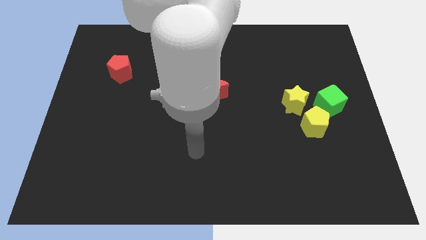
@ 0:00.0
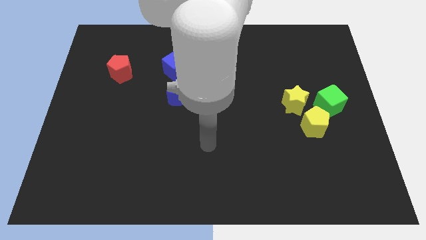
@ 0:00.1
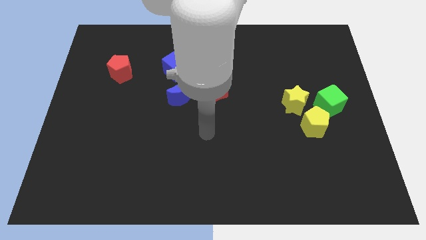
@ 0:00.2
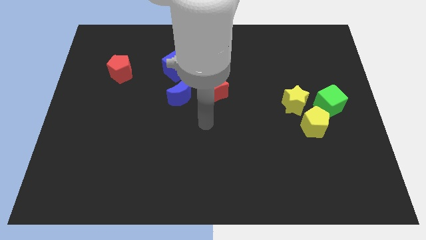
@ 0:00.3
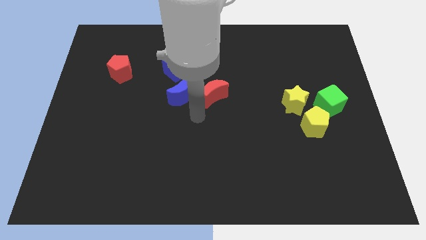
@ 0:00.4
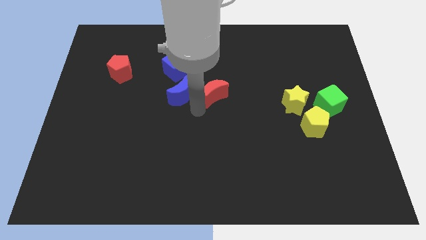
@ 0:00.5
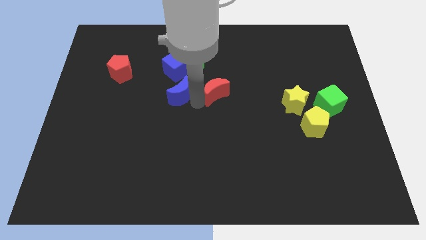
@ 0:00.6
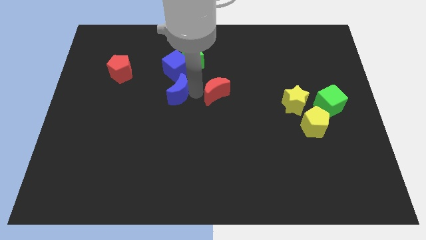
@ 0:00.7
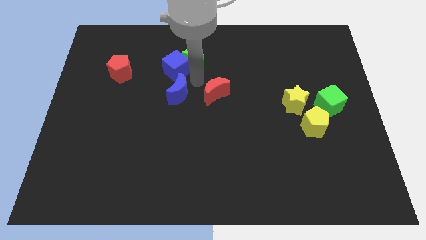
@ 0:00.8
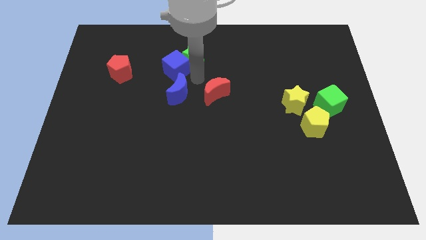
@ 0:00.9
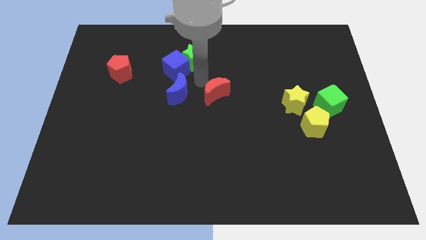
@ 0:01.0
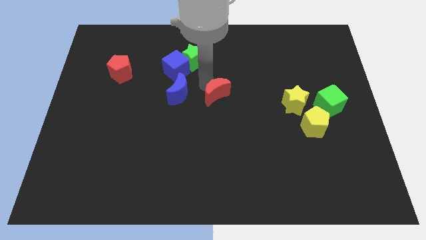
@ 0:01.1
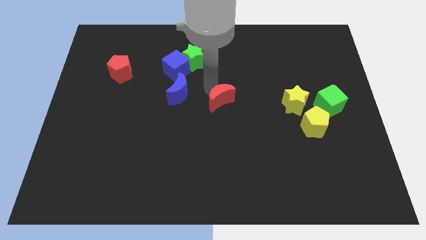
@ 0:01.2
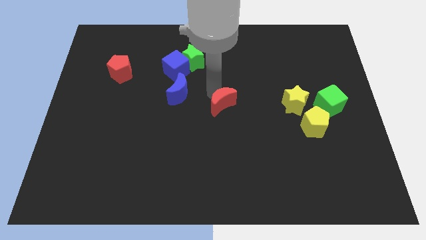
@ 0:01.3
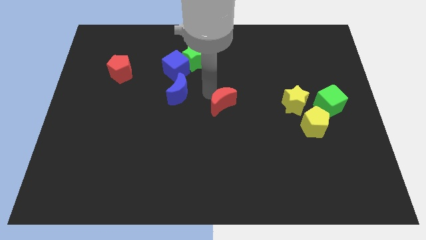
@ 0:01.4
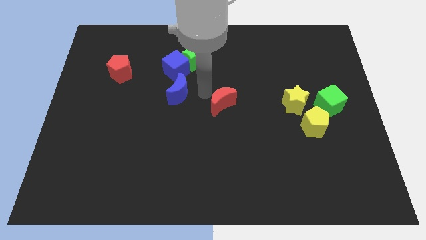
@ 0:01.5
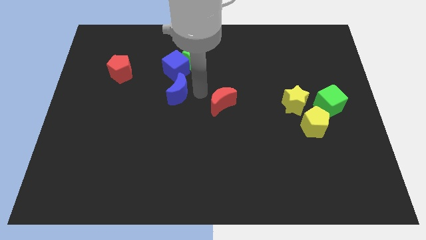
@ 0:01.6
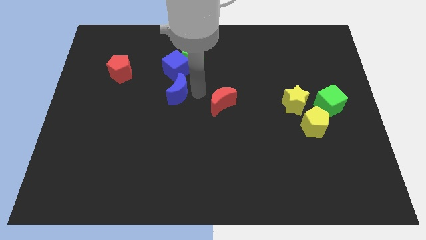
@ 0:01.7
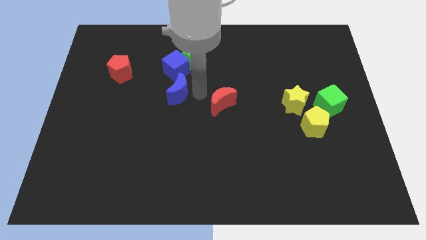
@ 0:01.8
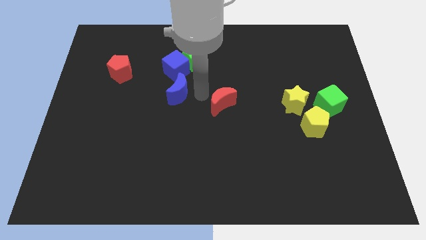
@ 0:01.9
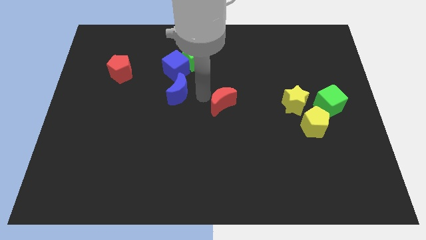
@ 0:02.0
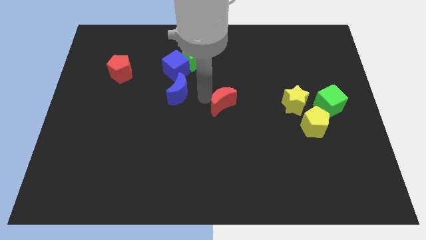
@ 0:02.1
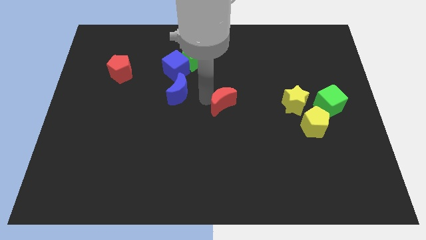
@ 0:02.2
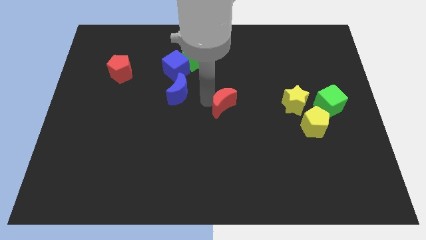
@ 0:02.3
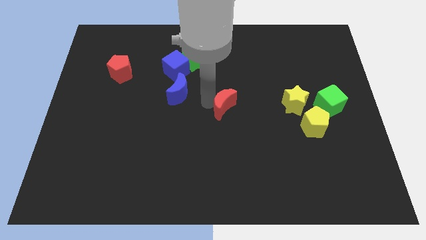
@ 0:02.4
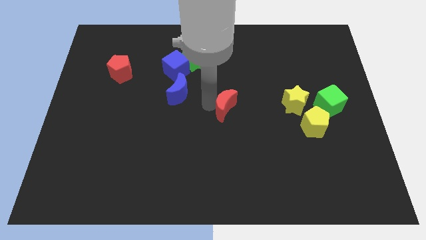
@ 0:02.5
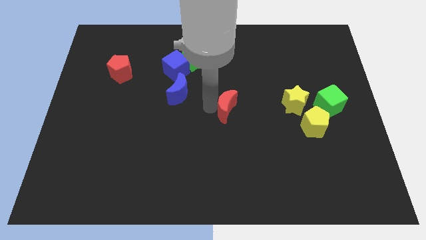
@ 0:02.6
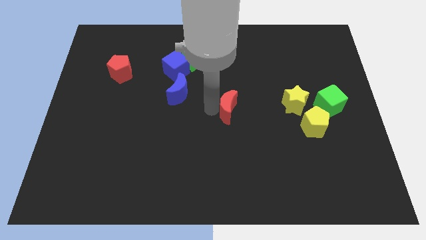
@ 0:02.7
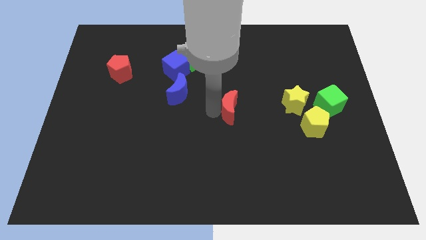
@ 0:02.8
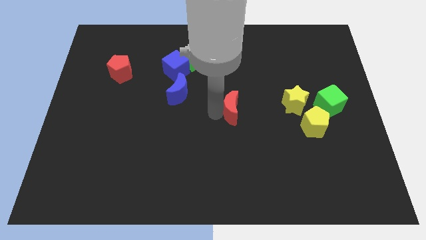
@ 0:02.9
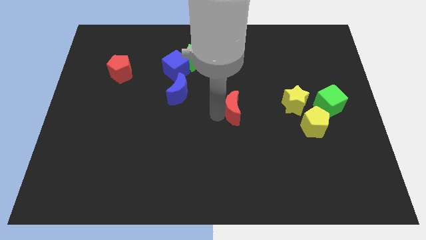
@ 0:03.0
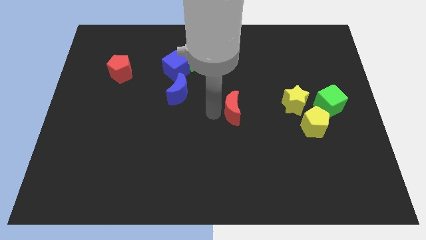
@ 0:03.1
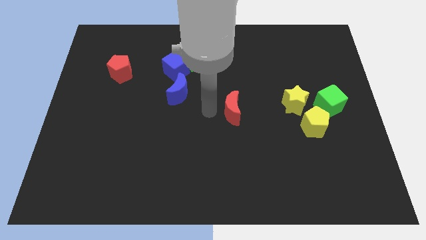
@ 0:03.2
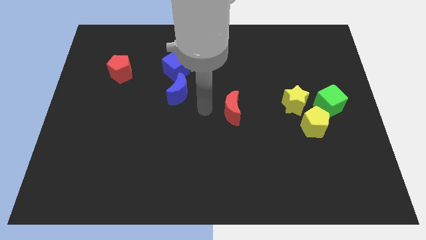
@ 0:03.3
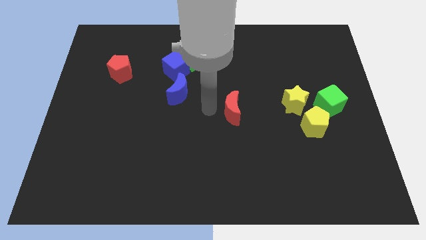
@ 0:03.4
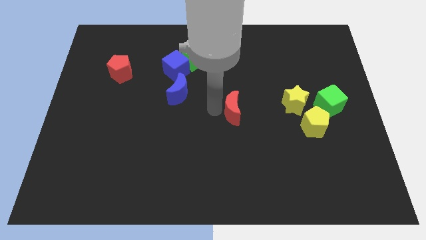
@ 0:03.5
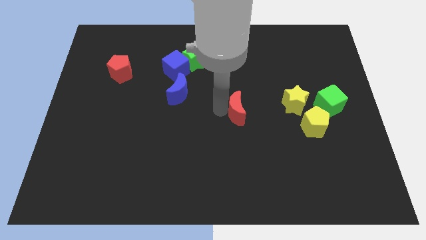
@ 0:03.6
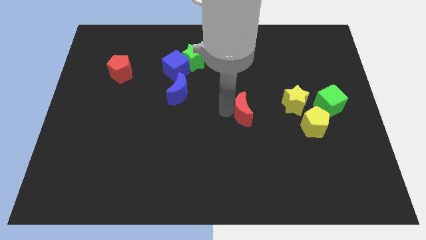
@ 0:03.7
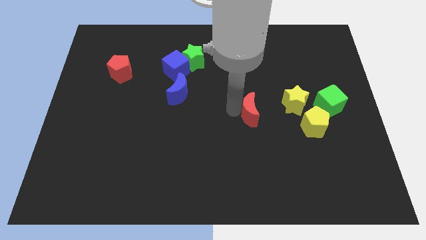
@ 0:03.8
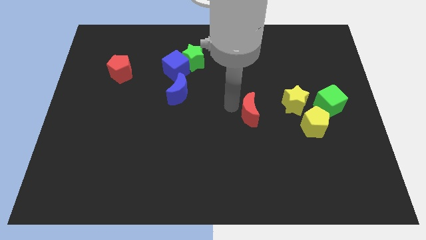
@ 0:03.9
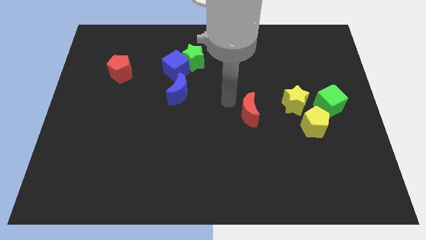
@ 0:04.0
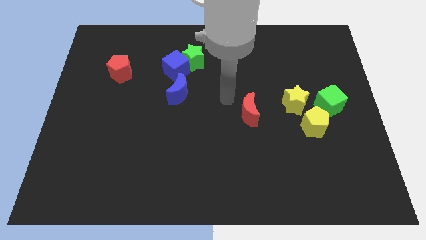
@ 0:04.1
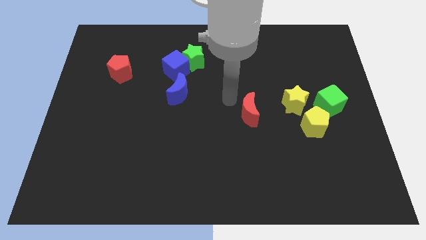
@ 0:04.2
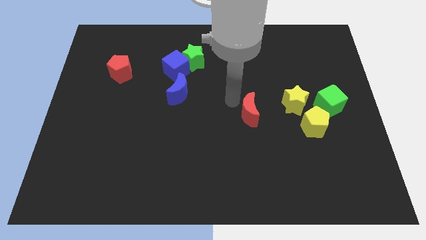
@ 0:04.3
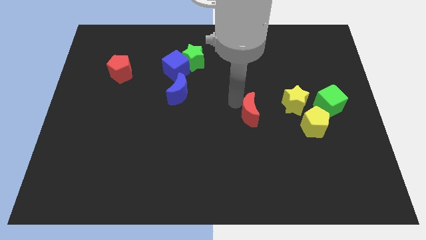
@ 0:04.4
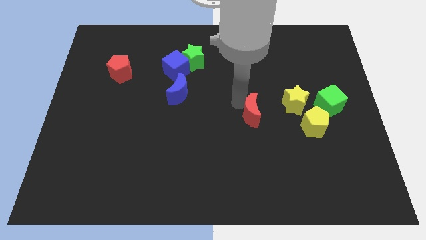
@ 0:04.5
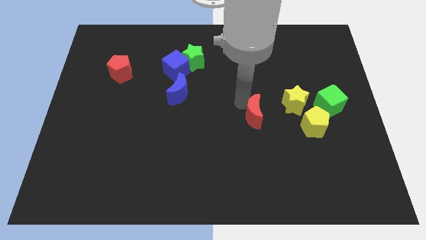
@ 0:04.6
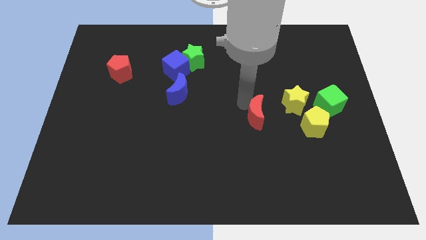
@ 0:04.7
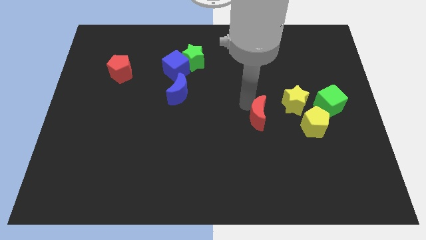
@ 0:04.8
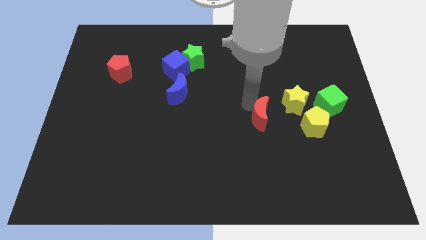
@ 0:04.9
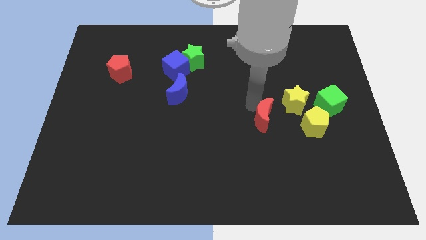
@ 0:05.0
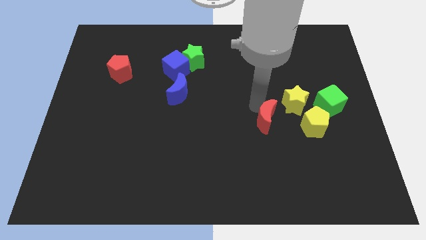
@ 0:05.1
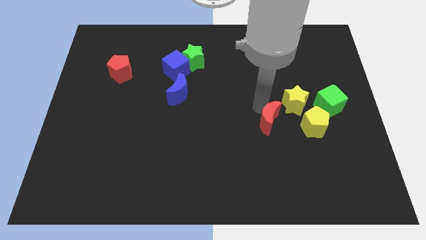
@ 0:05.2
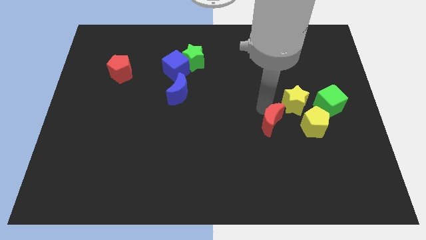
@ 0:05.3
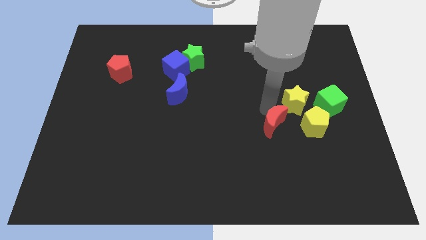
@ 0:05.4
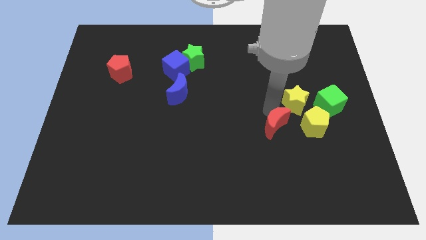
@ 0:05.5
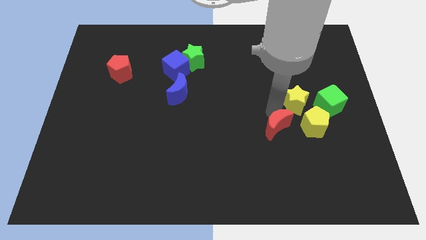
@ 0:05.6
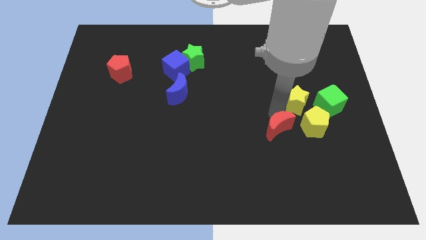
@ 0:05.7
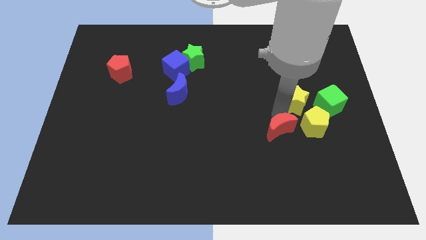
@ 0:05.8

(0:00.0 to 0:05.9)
slide the red moon to the bottom left of the yellow pentagon

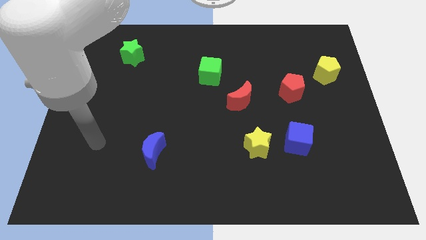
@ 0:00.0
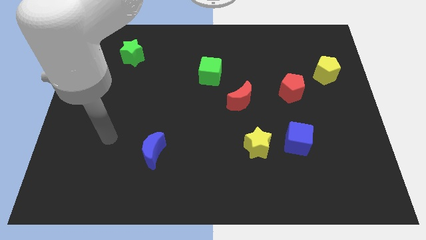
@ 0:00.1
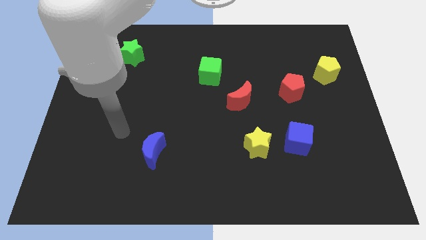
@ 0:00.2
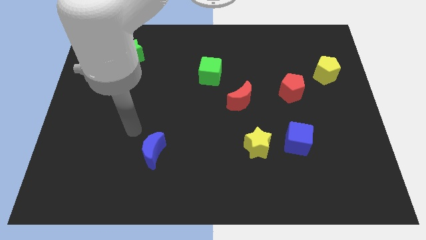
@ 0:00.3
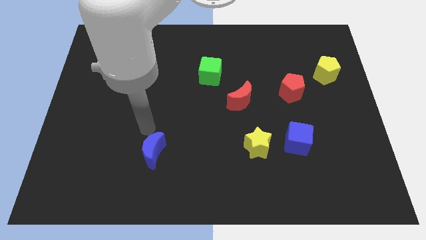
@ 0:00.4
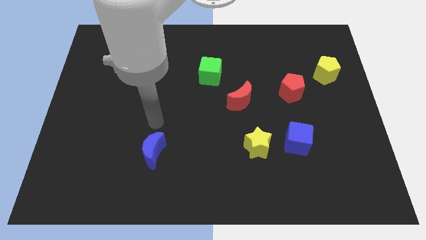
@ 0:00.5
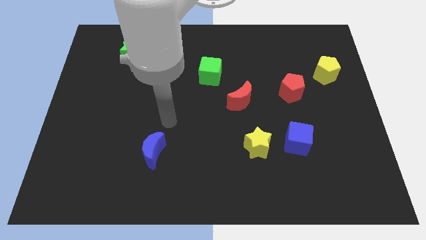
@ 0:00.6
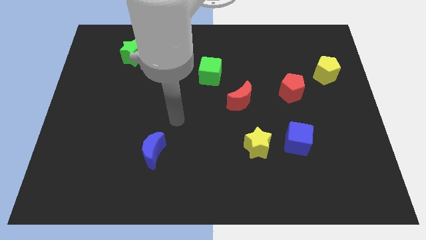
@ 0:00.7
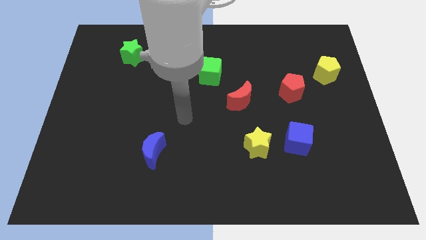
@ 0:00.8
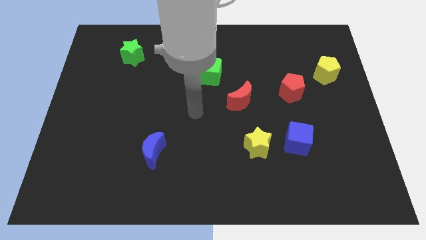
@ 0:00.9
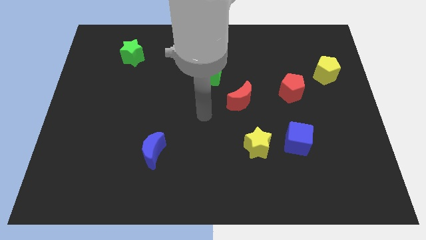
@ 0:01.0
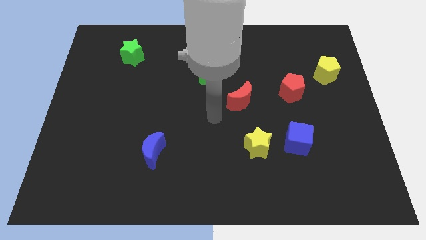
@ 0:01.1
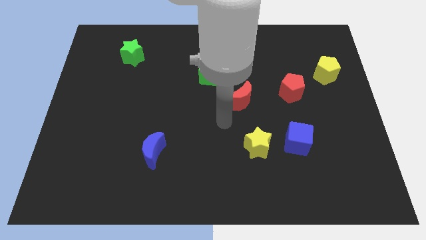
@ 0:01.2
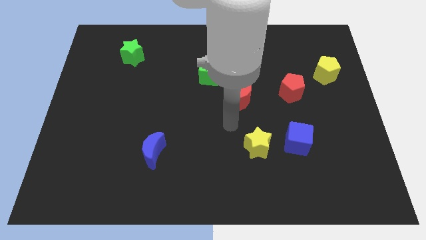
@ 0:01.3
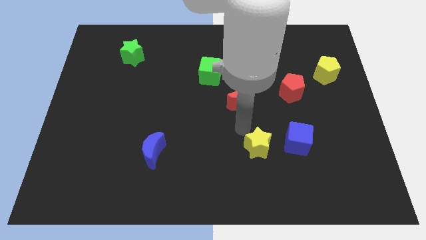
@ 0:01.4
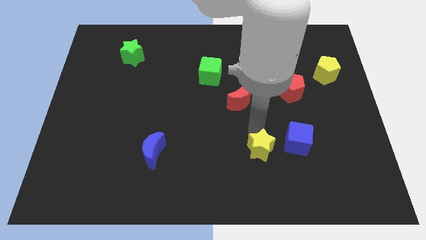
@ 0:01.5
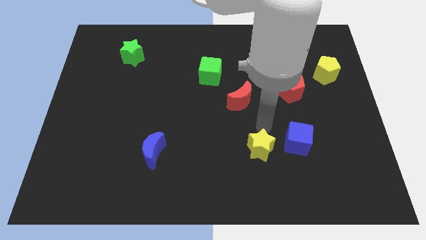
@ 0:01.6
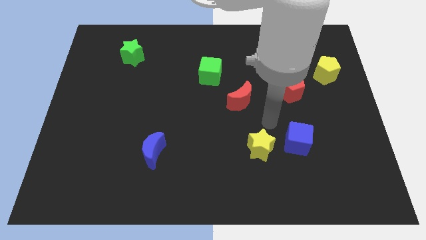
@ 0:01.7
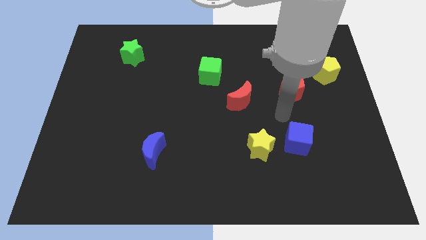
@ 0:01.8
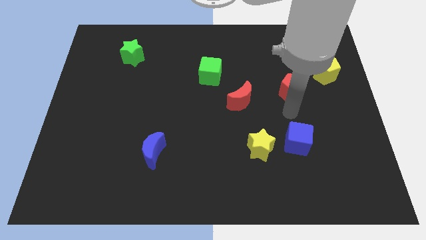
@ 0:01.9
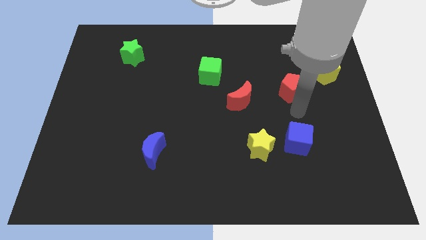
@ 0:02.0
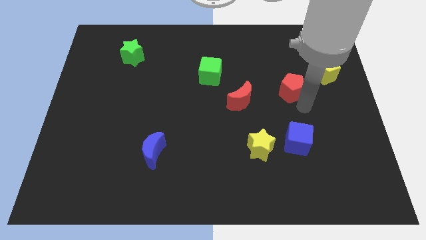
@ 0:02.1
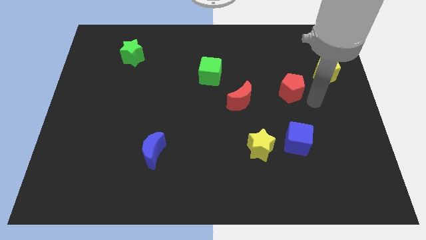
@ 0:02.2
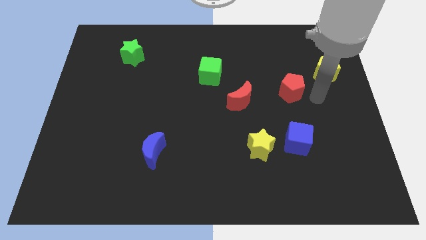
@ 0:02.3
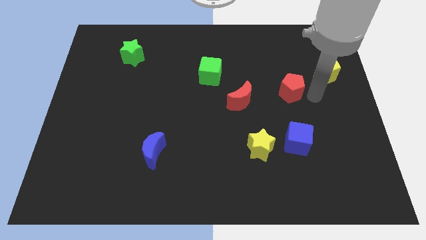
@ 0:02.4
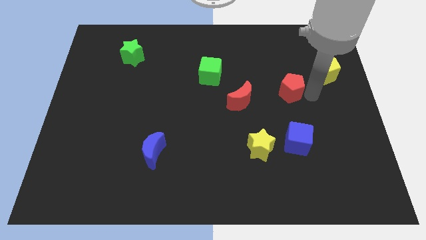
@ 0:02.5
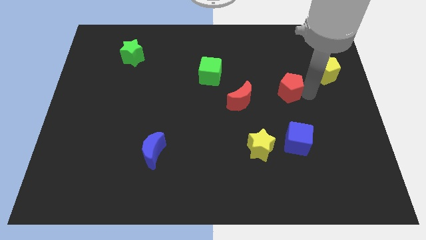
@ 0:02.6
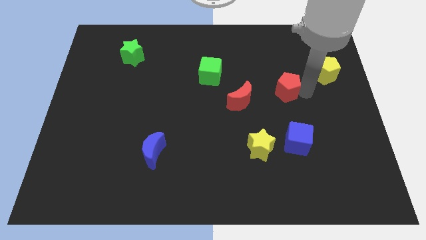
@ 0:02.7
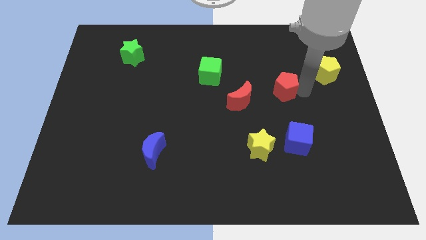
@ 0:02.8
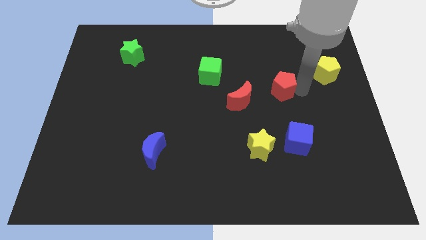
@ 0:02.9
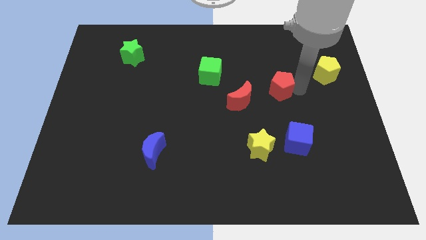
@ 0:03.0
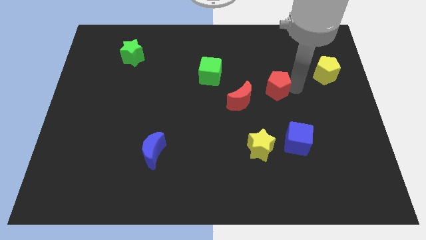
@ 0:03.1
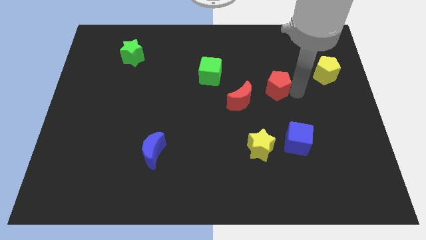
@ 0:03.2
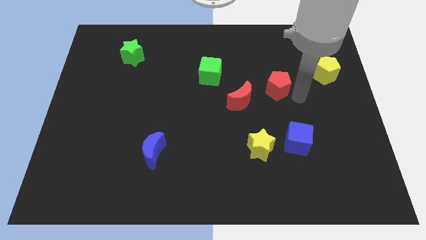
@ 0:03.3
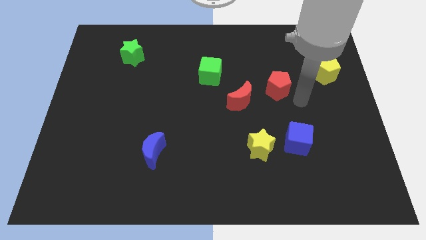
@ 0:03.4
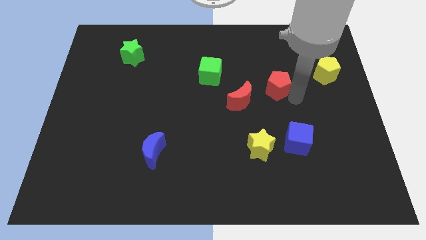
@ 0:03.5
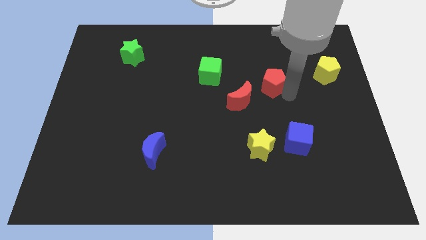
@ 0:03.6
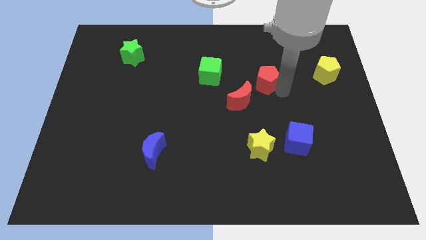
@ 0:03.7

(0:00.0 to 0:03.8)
move the red pentagon just right of the green cube
